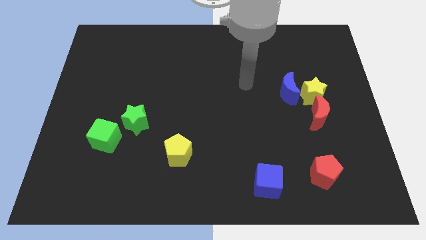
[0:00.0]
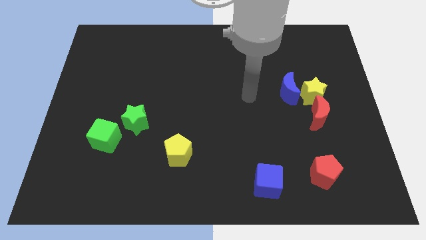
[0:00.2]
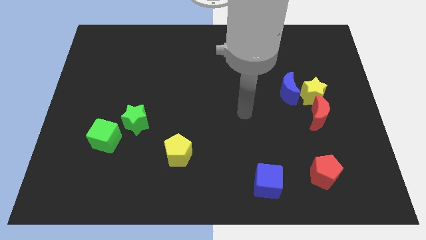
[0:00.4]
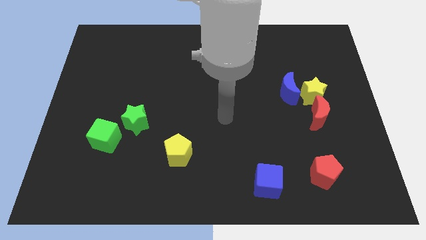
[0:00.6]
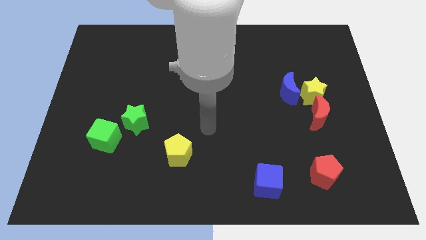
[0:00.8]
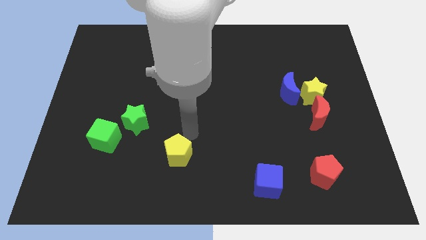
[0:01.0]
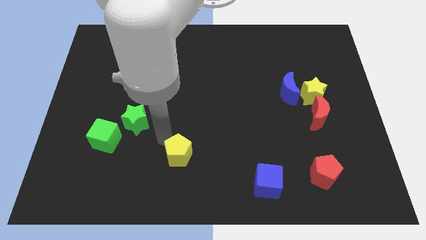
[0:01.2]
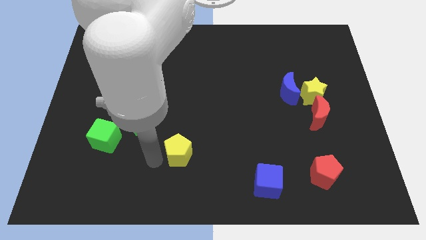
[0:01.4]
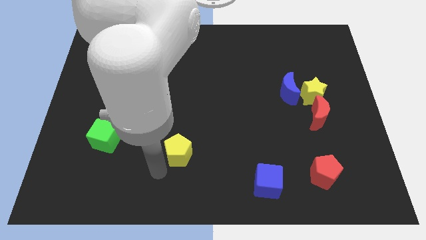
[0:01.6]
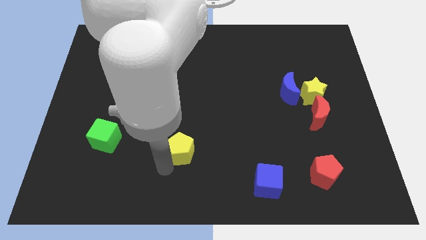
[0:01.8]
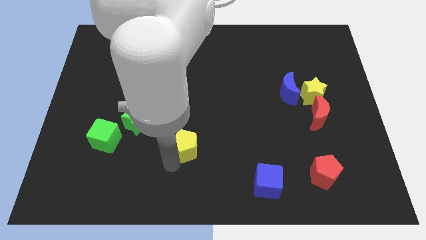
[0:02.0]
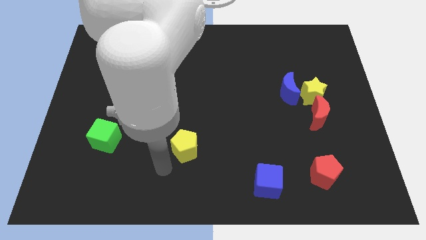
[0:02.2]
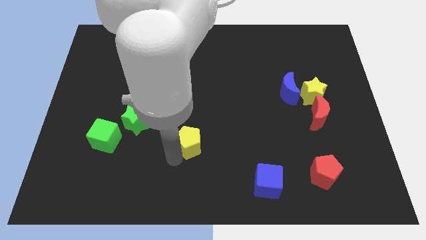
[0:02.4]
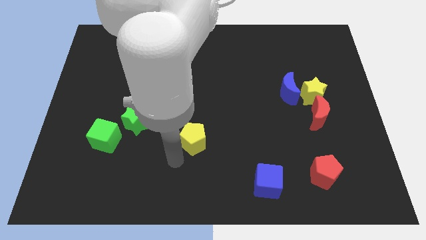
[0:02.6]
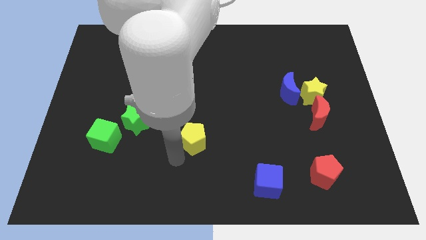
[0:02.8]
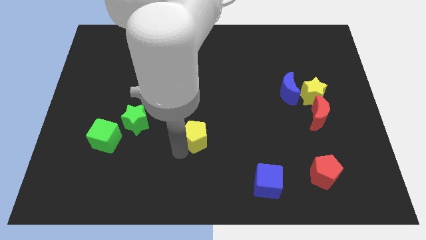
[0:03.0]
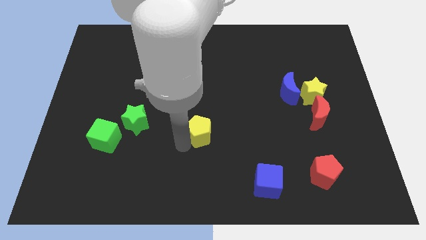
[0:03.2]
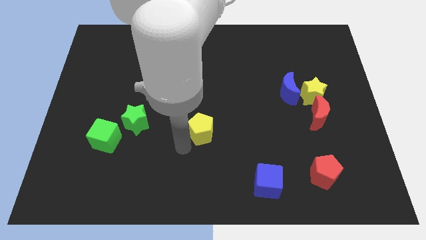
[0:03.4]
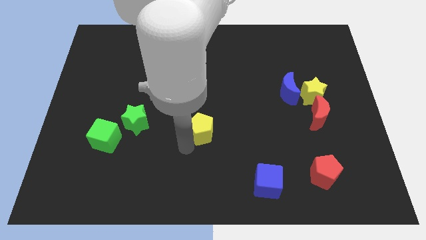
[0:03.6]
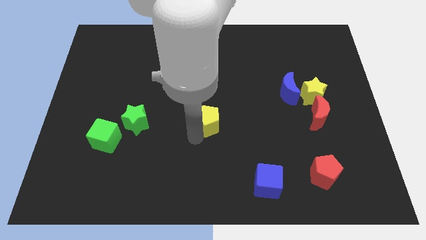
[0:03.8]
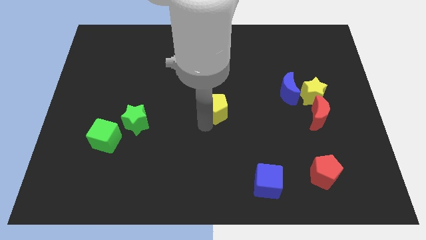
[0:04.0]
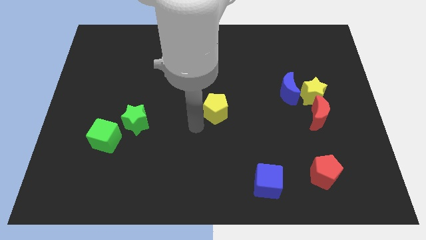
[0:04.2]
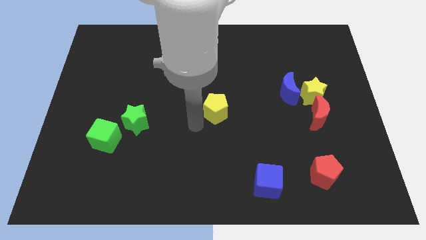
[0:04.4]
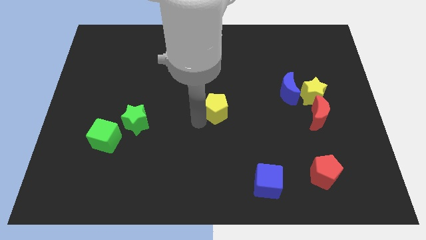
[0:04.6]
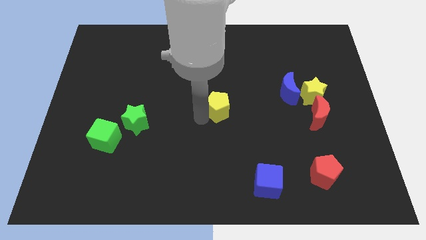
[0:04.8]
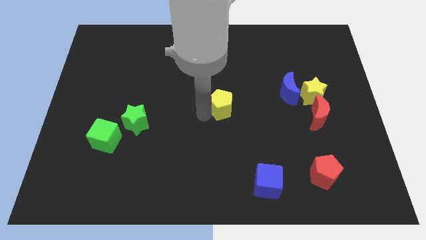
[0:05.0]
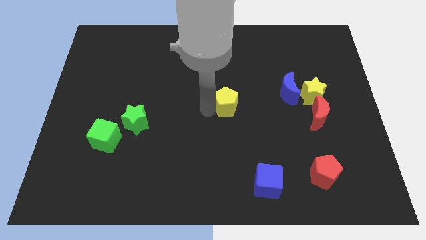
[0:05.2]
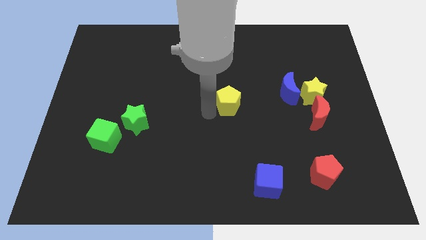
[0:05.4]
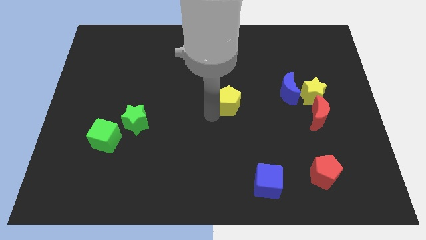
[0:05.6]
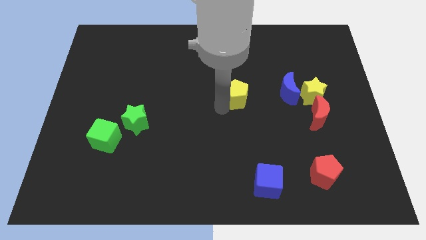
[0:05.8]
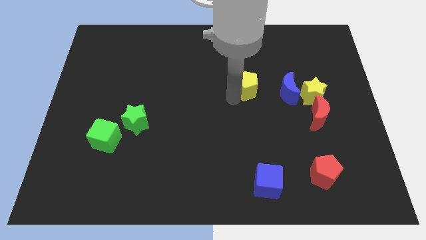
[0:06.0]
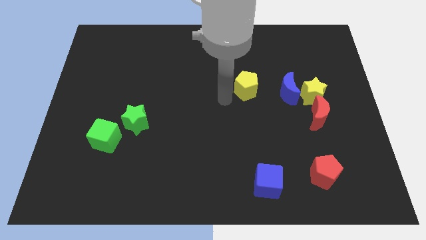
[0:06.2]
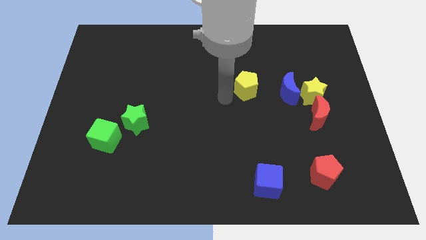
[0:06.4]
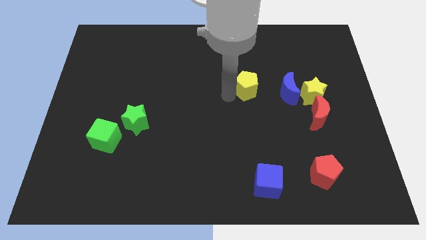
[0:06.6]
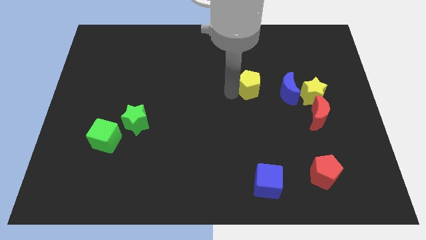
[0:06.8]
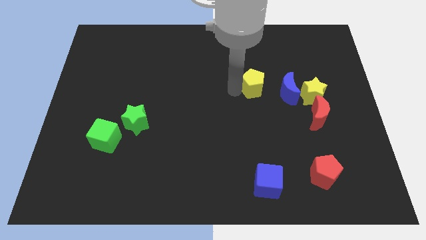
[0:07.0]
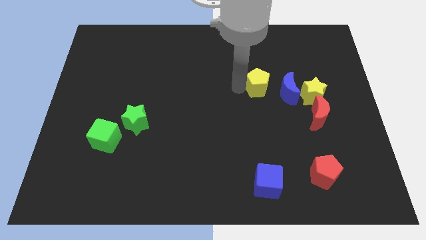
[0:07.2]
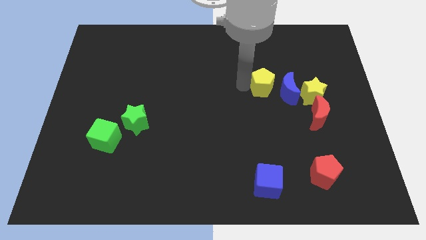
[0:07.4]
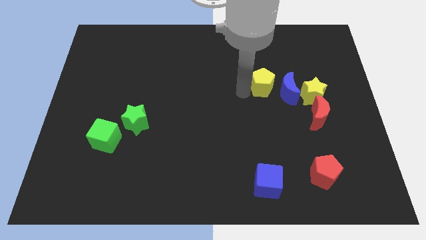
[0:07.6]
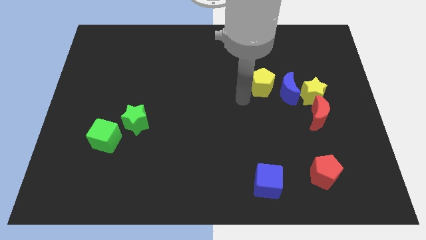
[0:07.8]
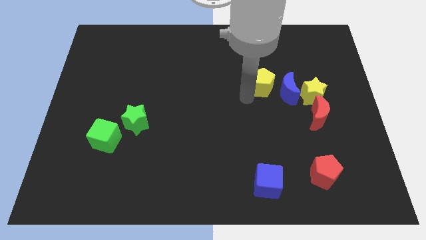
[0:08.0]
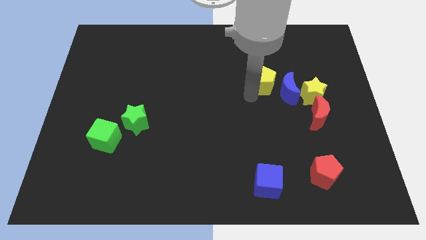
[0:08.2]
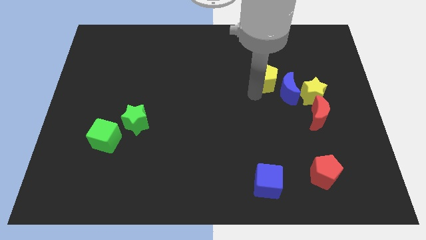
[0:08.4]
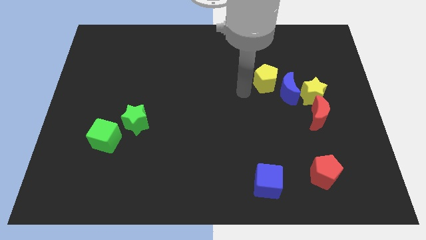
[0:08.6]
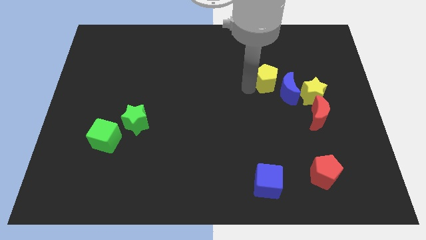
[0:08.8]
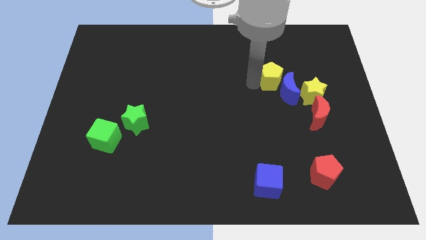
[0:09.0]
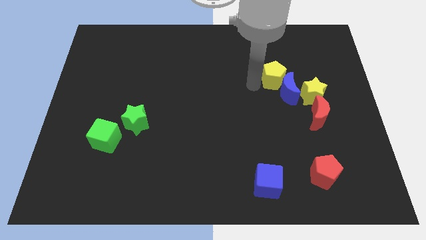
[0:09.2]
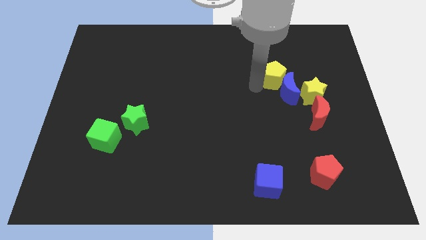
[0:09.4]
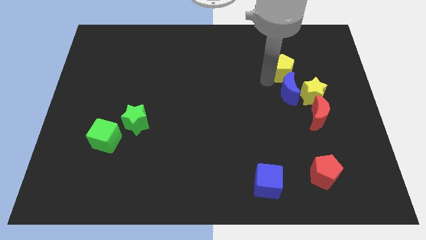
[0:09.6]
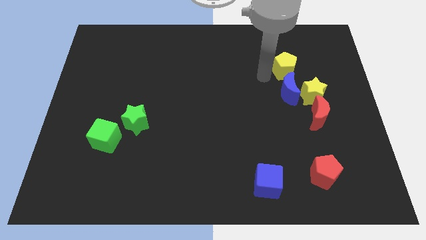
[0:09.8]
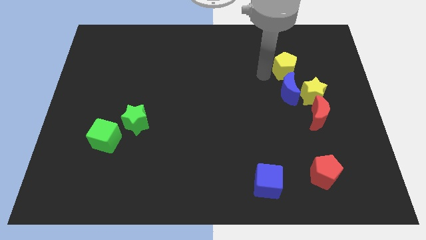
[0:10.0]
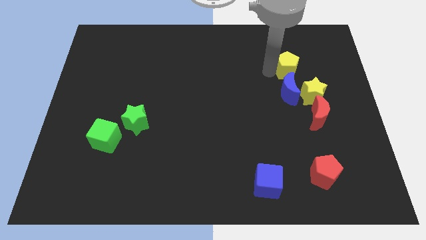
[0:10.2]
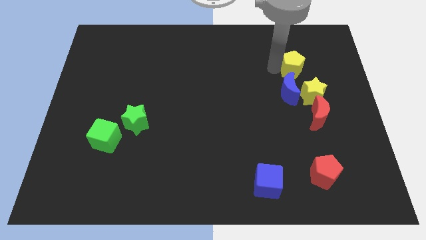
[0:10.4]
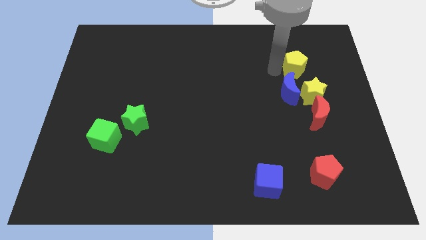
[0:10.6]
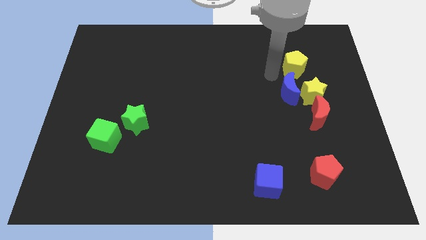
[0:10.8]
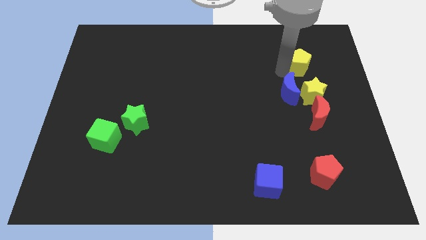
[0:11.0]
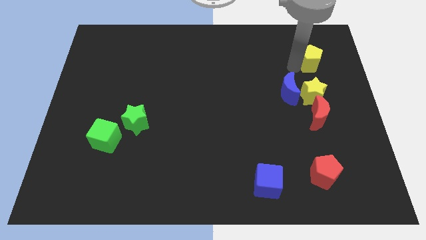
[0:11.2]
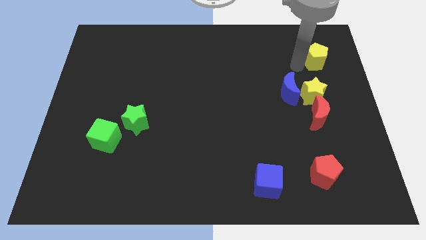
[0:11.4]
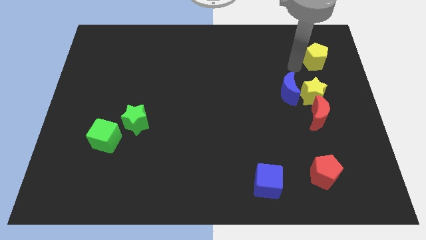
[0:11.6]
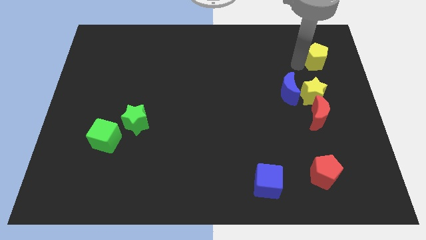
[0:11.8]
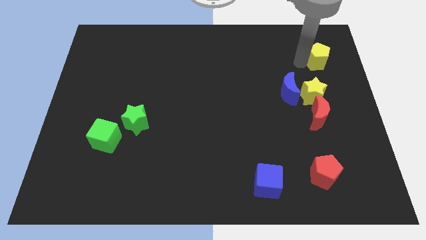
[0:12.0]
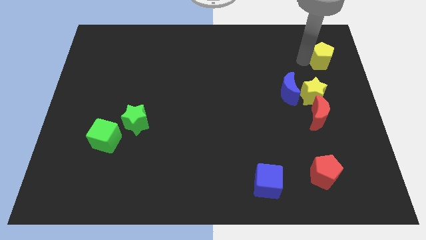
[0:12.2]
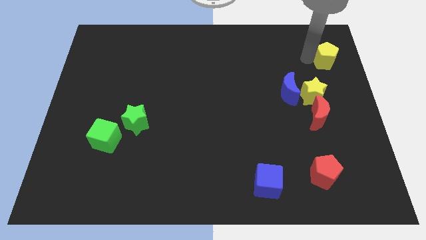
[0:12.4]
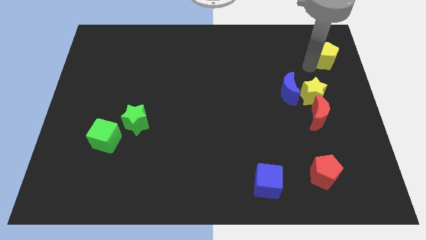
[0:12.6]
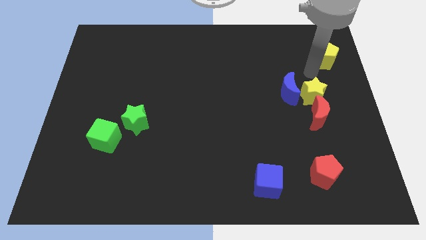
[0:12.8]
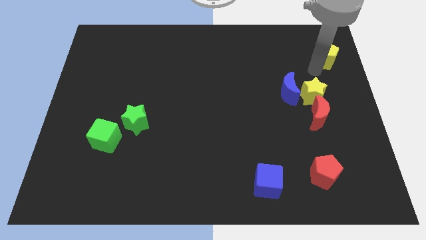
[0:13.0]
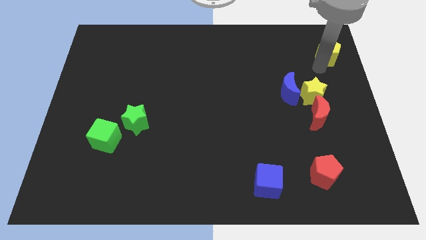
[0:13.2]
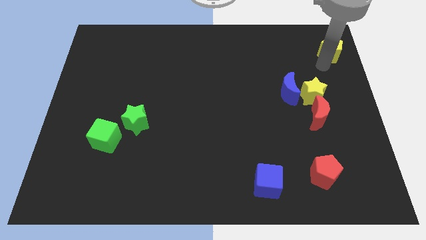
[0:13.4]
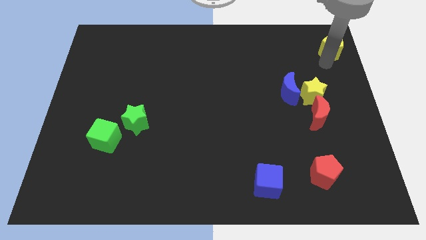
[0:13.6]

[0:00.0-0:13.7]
slide the yellow pentagon to the top right of the board
